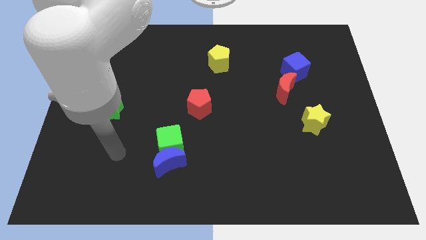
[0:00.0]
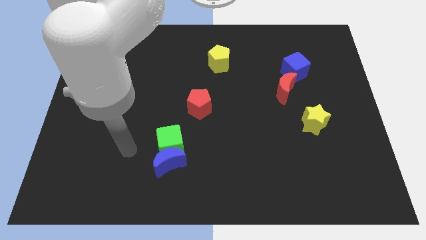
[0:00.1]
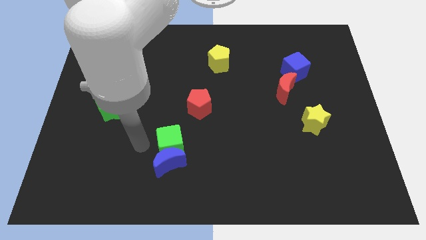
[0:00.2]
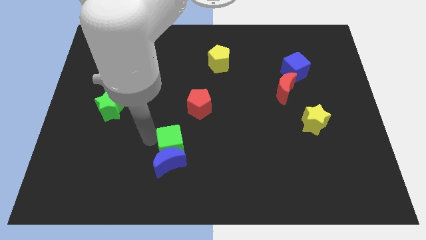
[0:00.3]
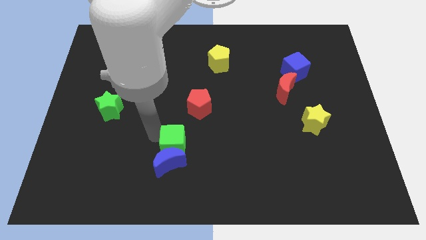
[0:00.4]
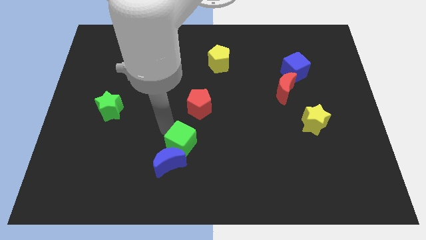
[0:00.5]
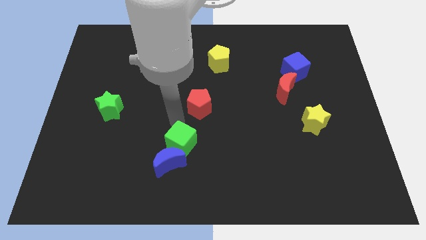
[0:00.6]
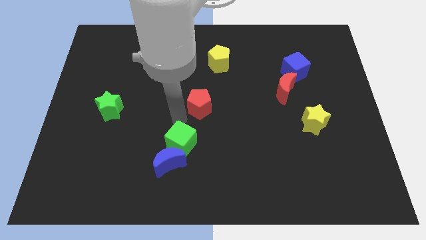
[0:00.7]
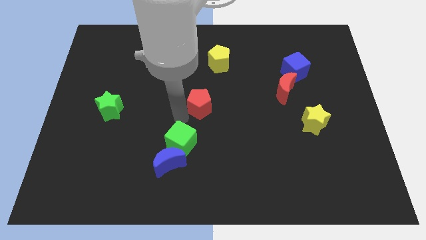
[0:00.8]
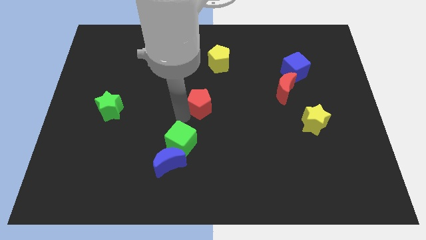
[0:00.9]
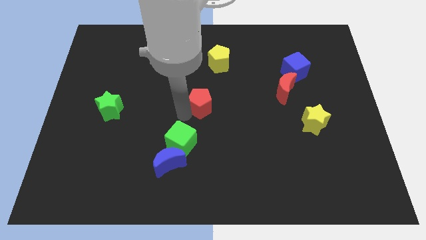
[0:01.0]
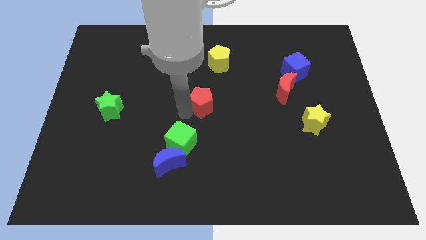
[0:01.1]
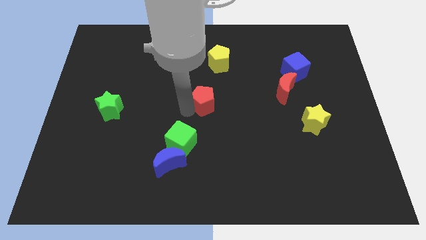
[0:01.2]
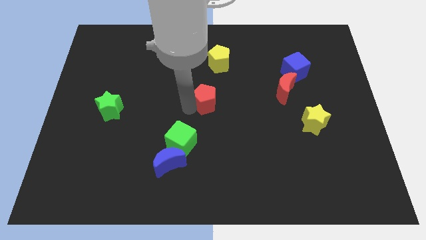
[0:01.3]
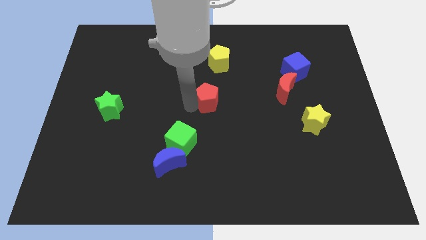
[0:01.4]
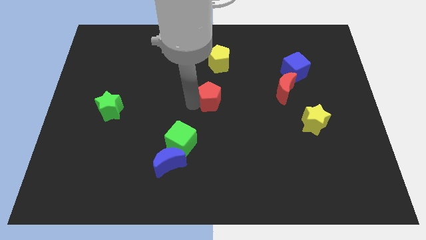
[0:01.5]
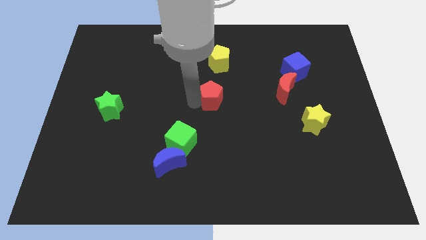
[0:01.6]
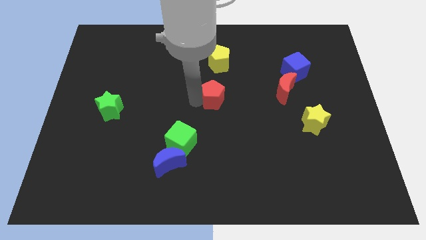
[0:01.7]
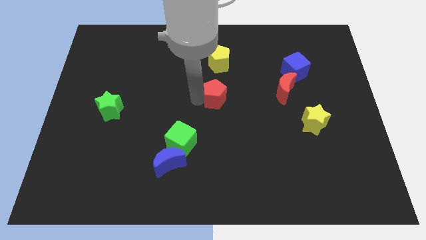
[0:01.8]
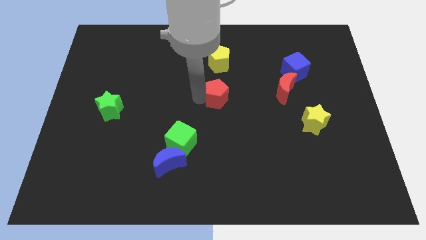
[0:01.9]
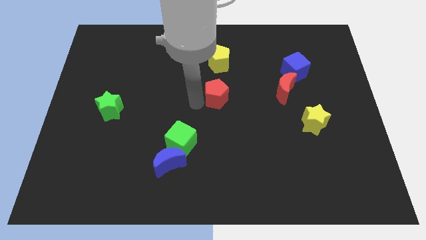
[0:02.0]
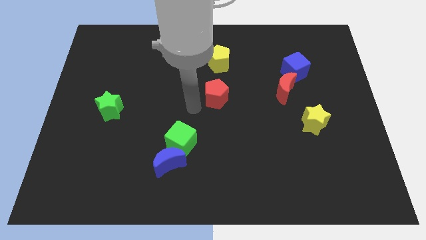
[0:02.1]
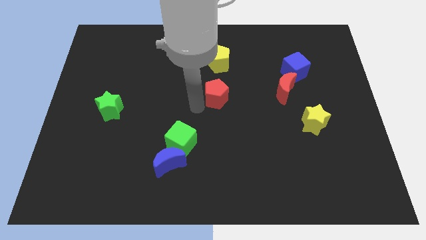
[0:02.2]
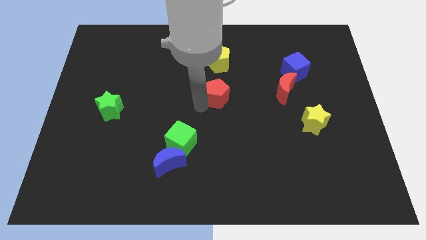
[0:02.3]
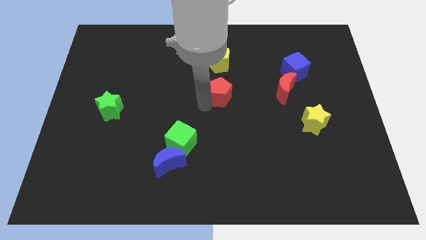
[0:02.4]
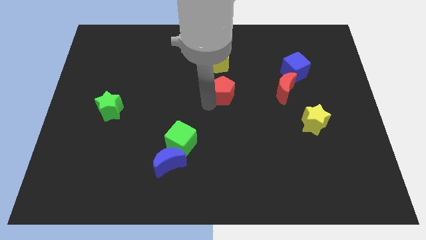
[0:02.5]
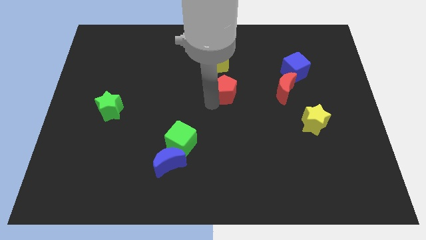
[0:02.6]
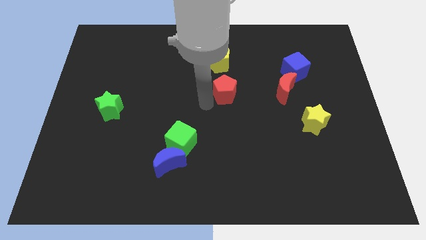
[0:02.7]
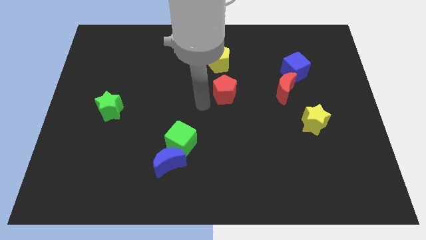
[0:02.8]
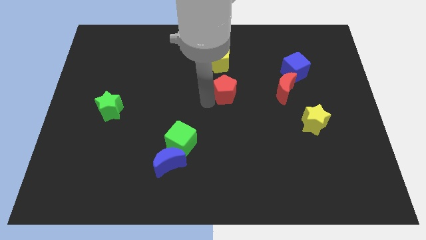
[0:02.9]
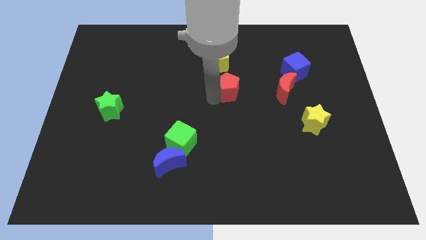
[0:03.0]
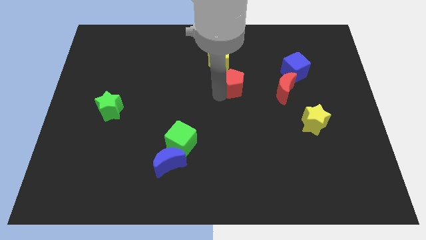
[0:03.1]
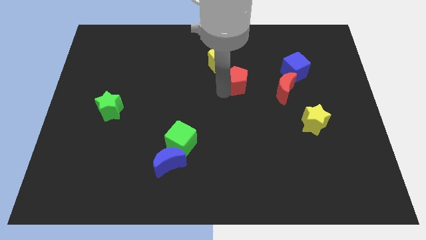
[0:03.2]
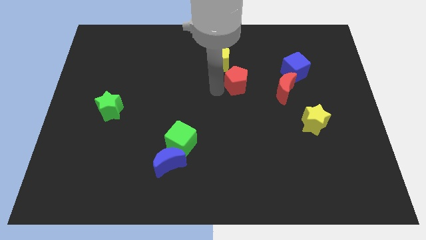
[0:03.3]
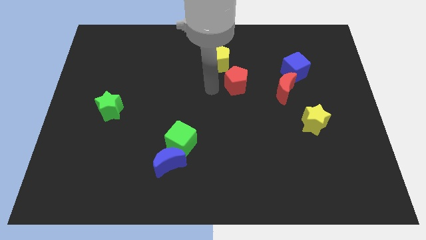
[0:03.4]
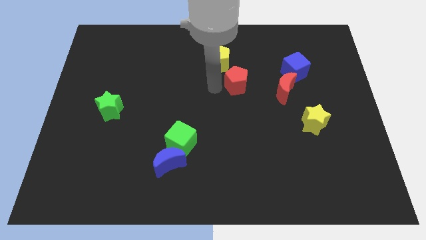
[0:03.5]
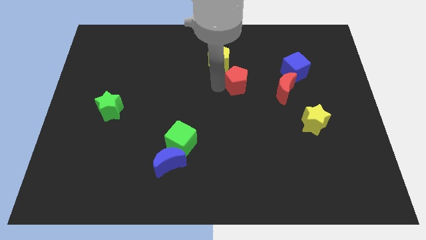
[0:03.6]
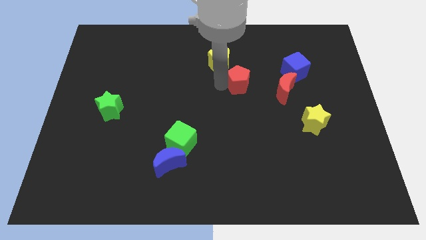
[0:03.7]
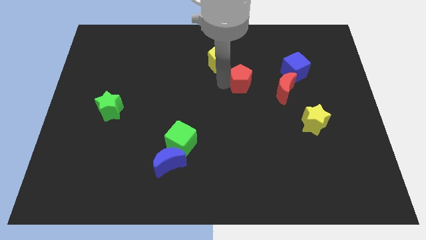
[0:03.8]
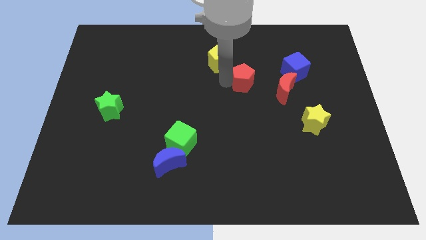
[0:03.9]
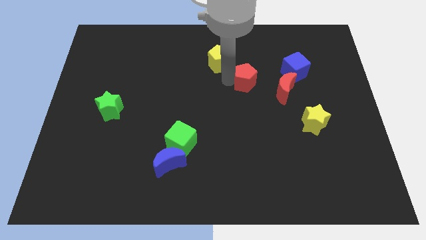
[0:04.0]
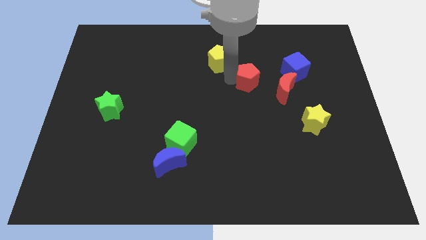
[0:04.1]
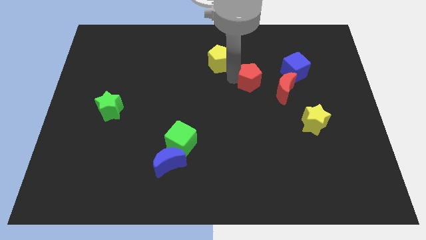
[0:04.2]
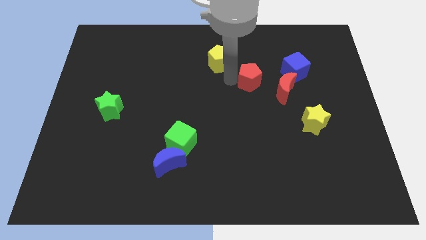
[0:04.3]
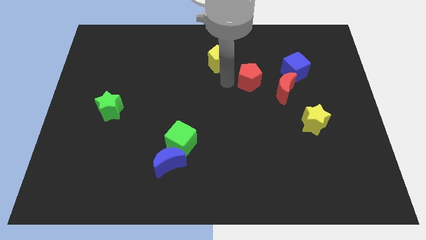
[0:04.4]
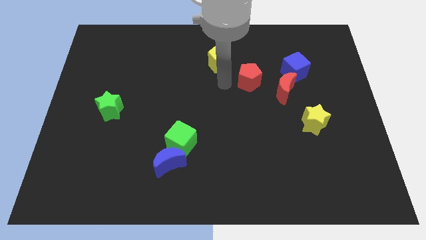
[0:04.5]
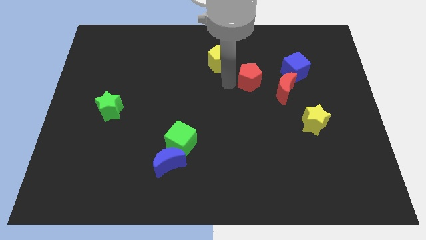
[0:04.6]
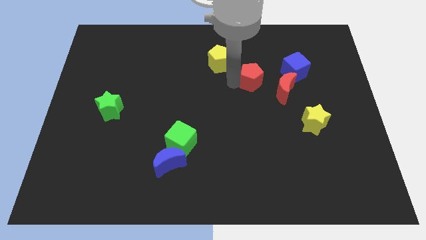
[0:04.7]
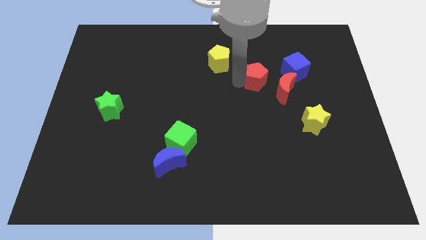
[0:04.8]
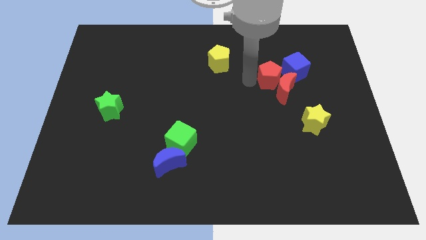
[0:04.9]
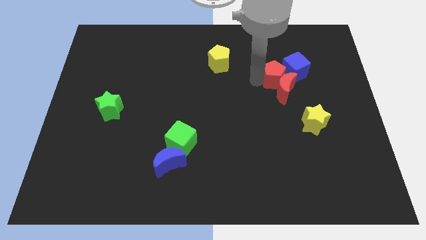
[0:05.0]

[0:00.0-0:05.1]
put the red pentagon close to the blue cube

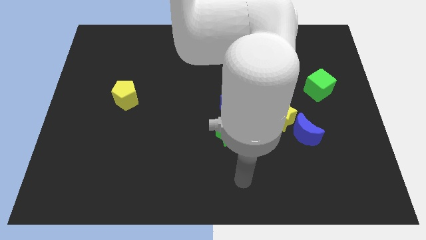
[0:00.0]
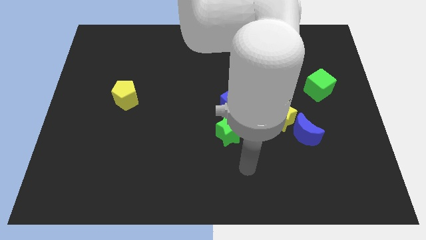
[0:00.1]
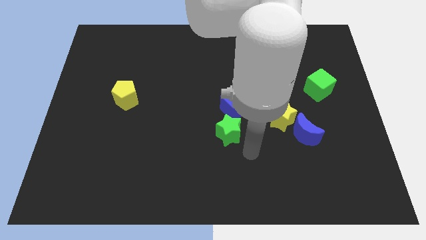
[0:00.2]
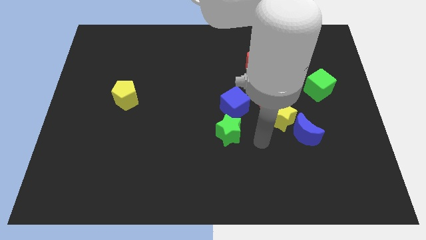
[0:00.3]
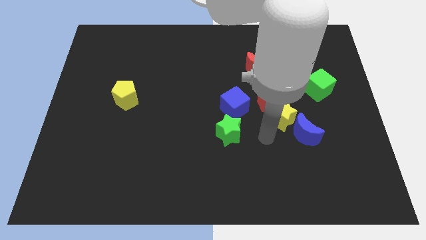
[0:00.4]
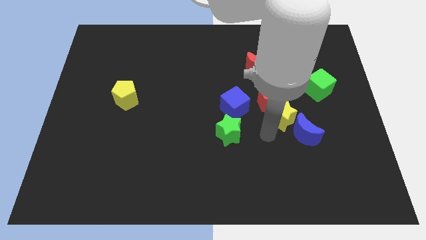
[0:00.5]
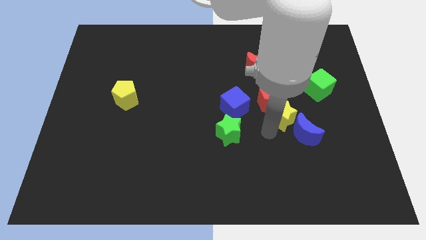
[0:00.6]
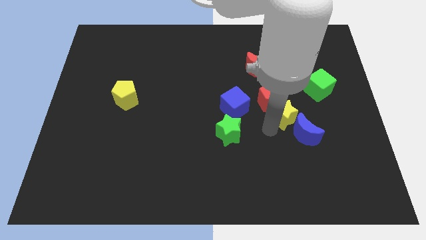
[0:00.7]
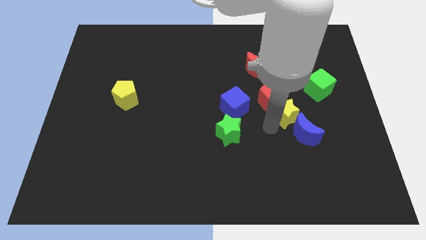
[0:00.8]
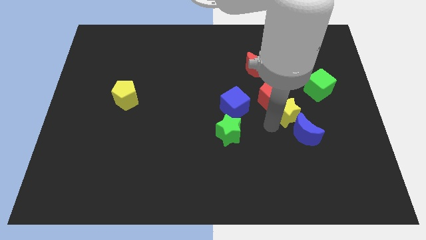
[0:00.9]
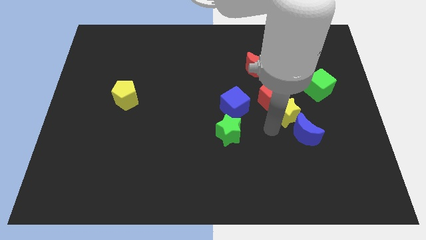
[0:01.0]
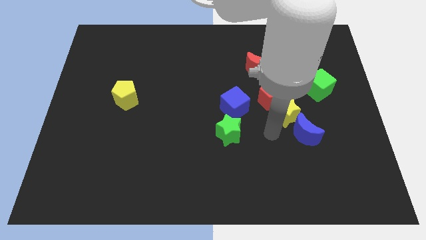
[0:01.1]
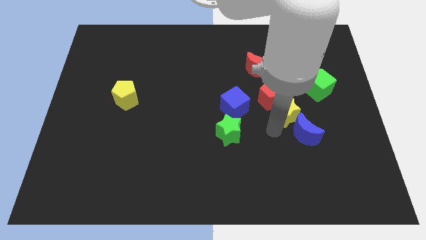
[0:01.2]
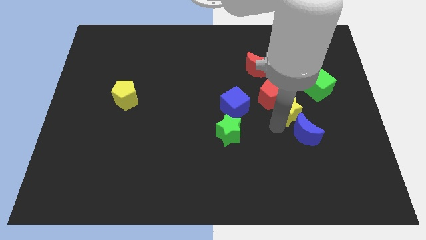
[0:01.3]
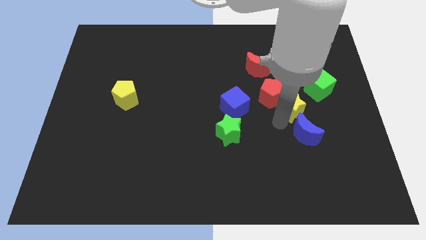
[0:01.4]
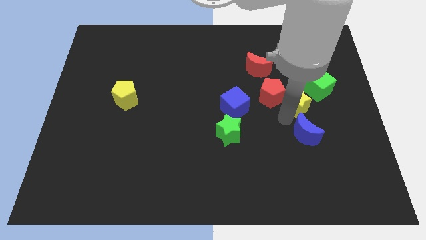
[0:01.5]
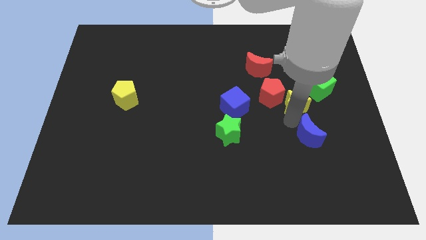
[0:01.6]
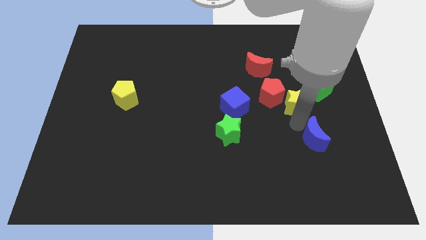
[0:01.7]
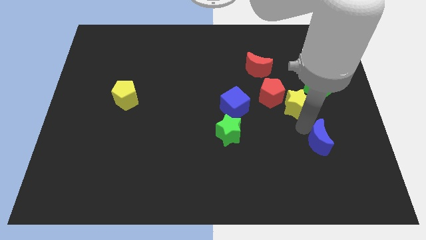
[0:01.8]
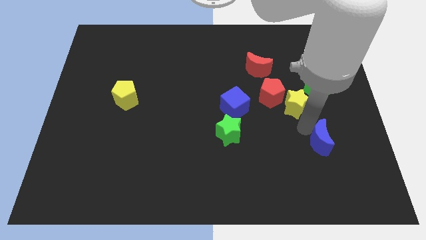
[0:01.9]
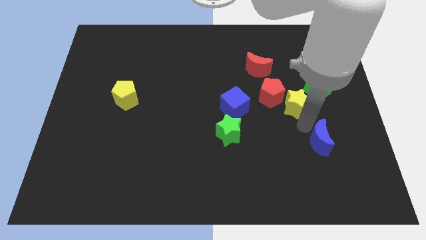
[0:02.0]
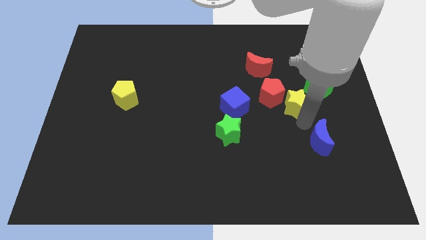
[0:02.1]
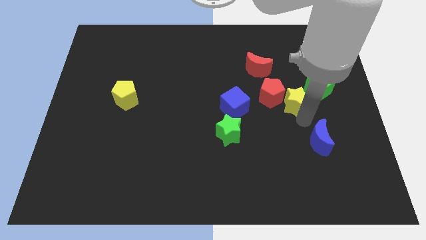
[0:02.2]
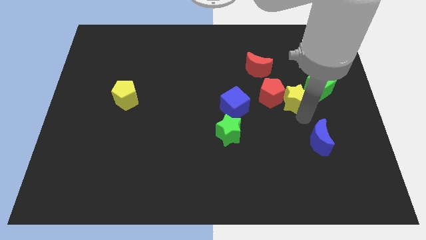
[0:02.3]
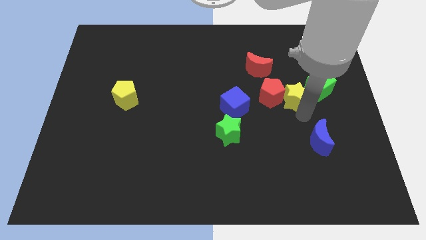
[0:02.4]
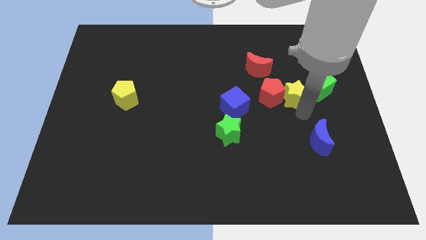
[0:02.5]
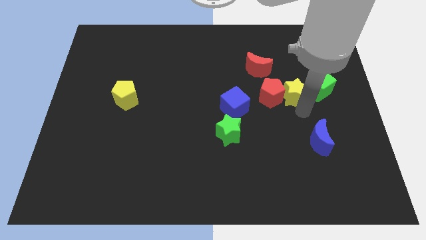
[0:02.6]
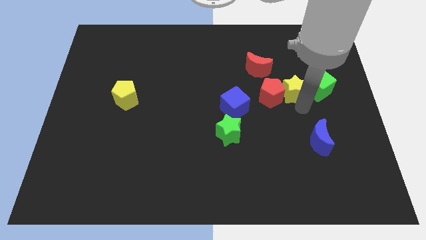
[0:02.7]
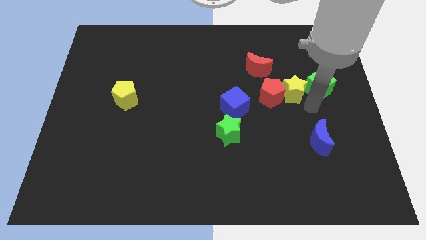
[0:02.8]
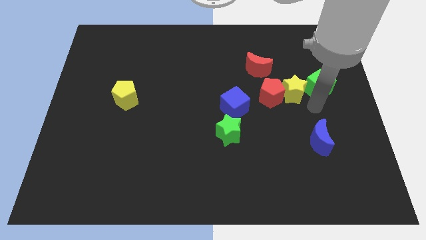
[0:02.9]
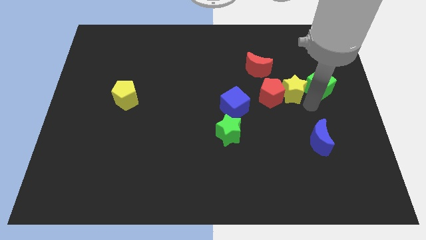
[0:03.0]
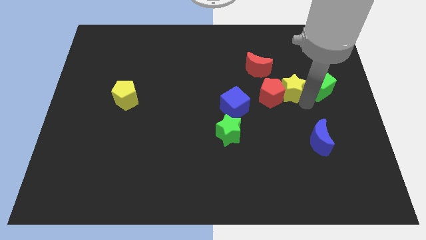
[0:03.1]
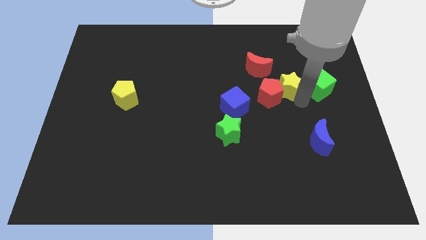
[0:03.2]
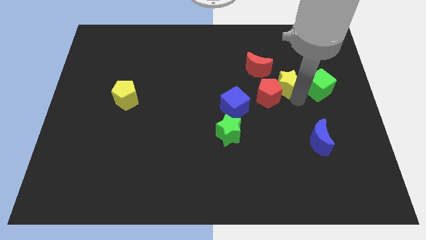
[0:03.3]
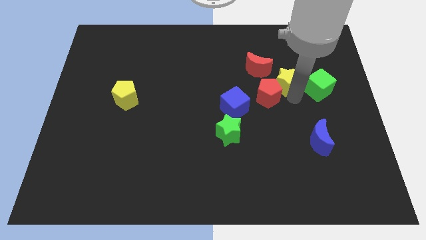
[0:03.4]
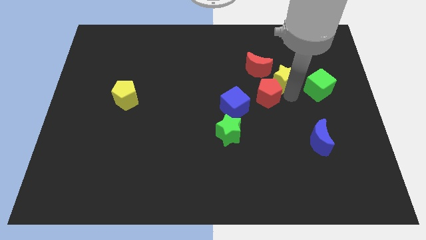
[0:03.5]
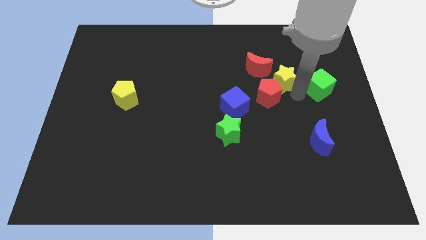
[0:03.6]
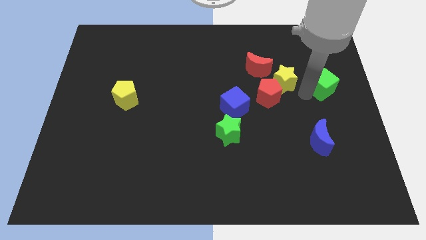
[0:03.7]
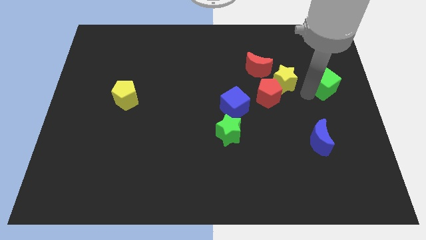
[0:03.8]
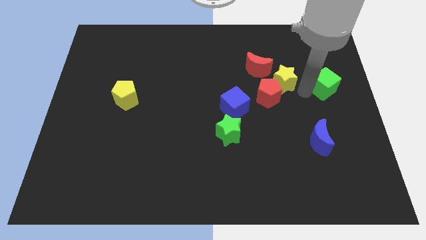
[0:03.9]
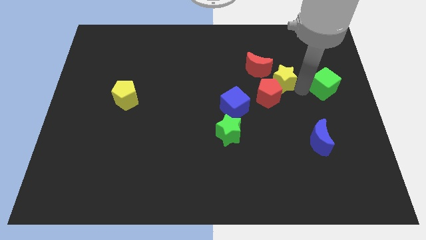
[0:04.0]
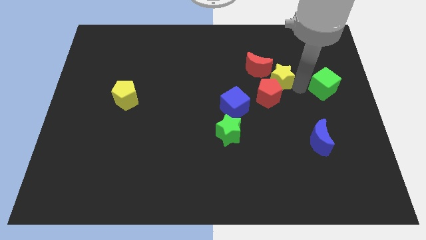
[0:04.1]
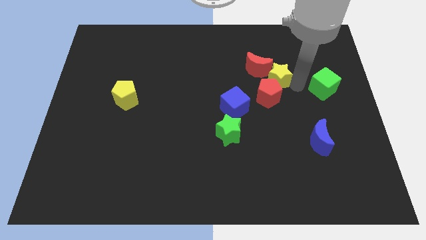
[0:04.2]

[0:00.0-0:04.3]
put the yellow star to the red moon
